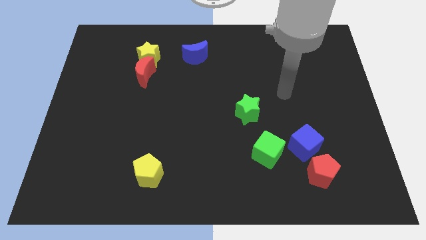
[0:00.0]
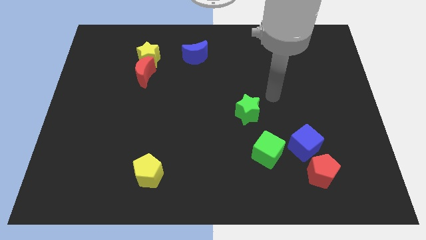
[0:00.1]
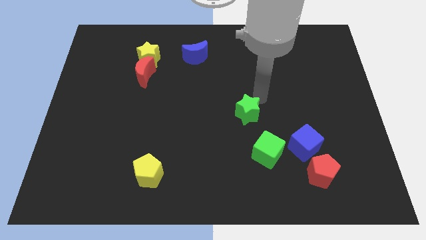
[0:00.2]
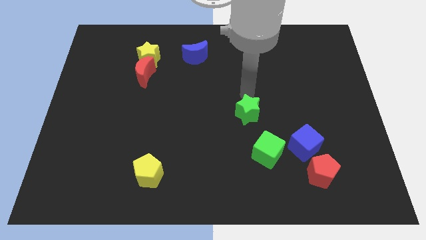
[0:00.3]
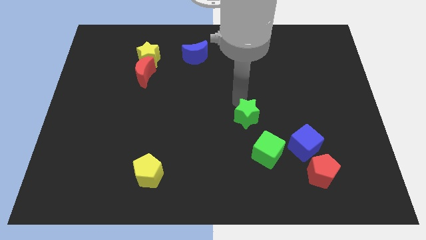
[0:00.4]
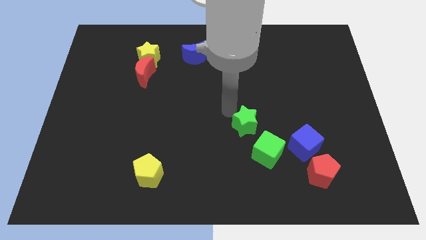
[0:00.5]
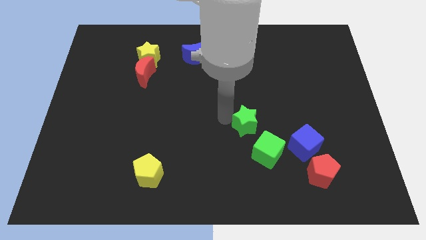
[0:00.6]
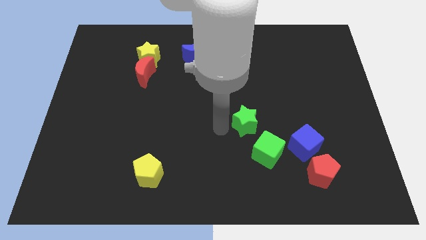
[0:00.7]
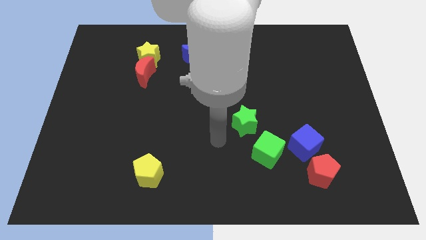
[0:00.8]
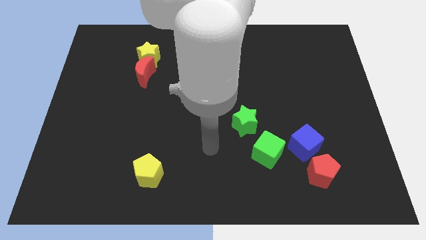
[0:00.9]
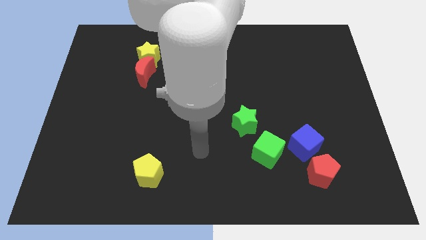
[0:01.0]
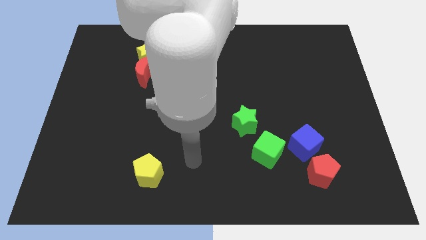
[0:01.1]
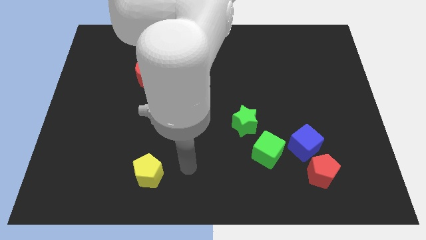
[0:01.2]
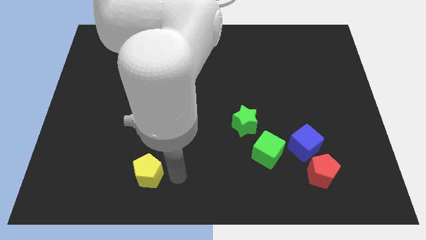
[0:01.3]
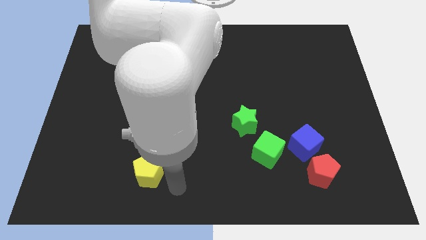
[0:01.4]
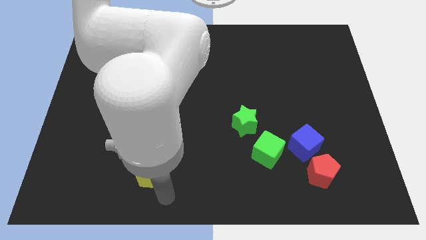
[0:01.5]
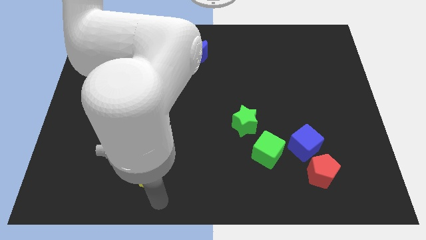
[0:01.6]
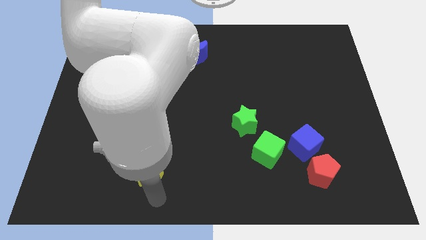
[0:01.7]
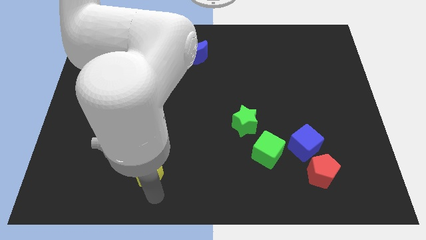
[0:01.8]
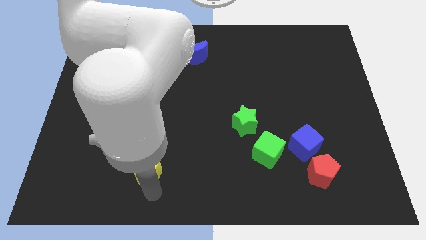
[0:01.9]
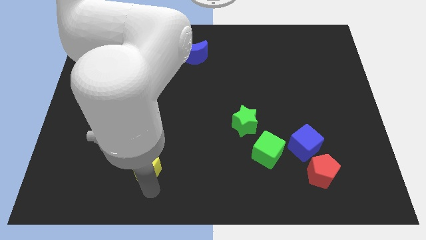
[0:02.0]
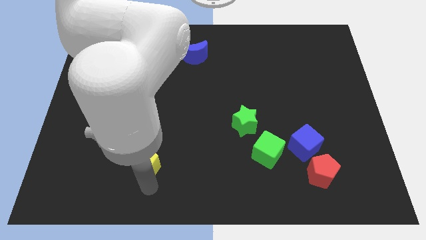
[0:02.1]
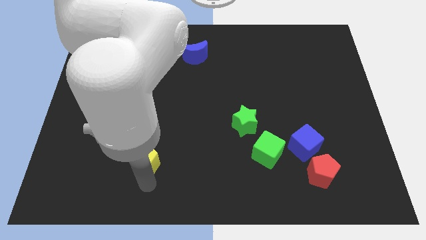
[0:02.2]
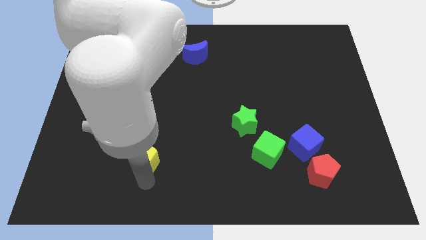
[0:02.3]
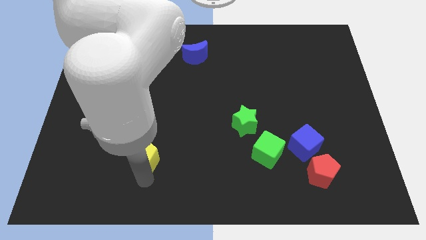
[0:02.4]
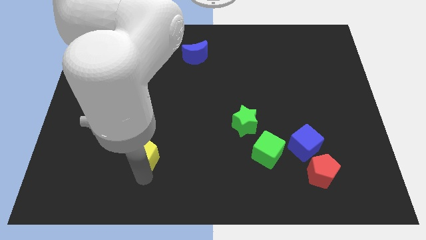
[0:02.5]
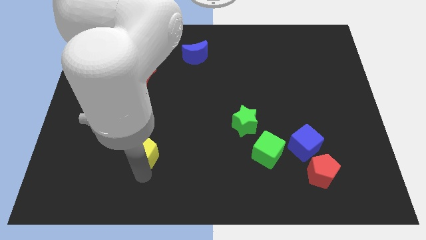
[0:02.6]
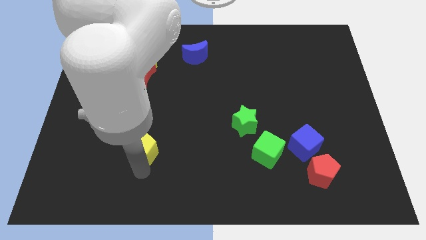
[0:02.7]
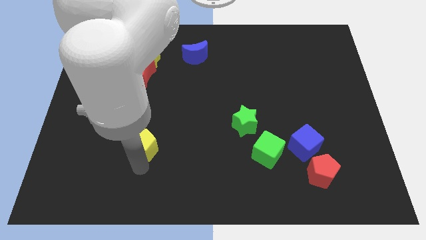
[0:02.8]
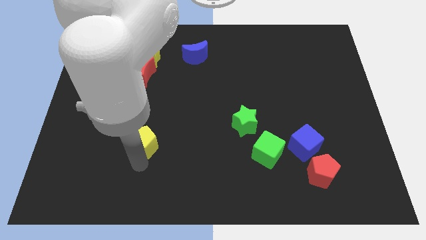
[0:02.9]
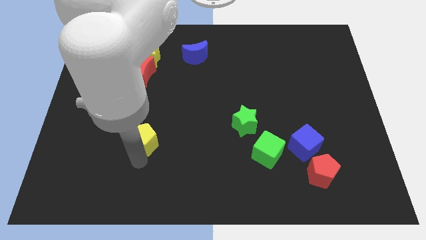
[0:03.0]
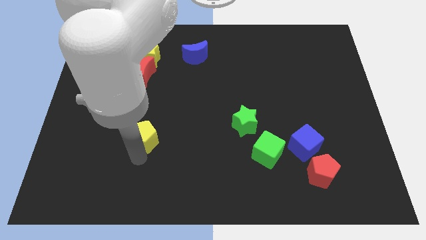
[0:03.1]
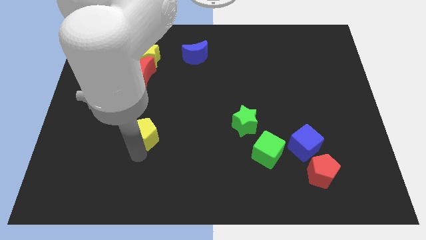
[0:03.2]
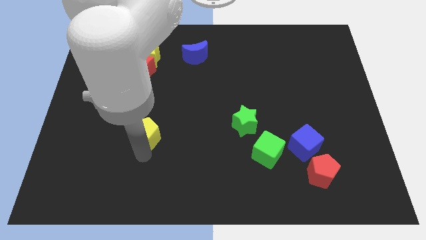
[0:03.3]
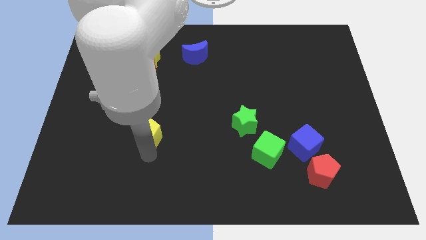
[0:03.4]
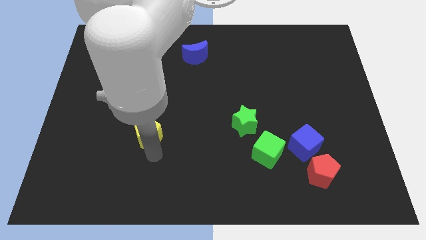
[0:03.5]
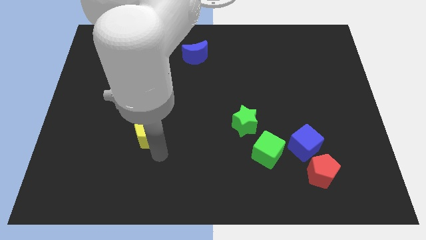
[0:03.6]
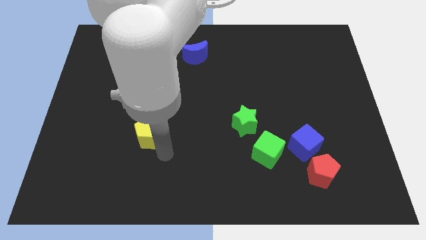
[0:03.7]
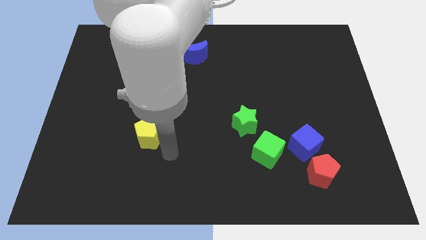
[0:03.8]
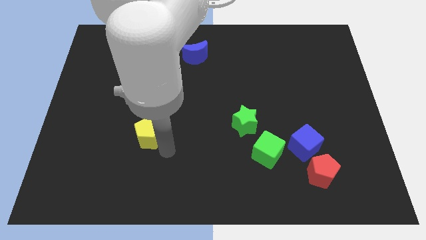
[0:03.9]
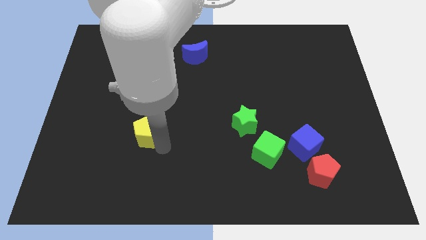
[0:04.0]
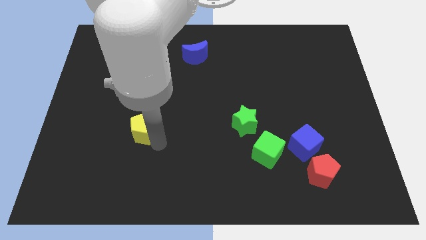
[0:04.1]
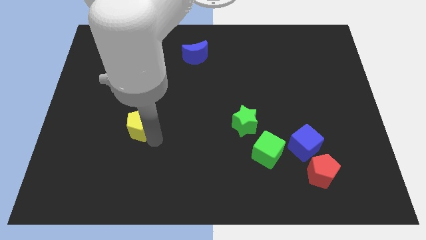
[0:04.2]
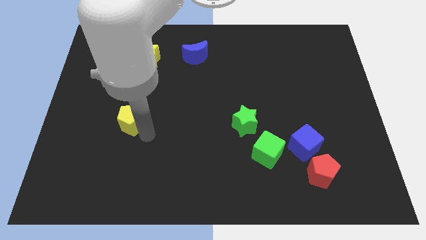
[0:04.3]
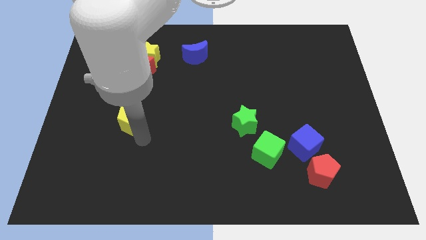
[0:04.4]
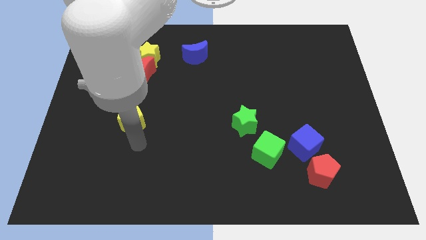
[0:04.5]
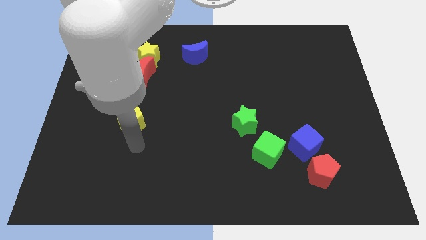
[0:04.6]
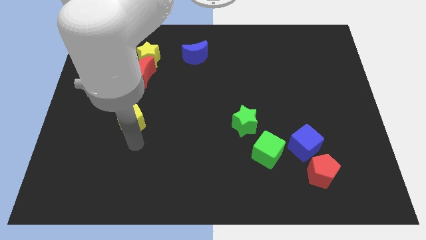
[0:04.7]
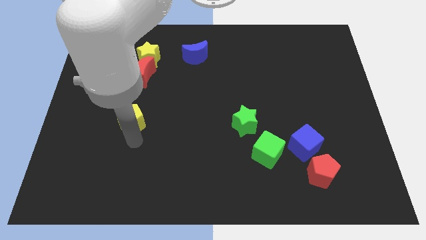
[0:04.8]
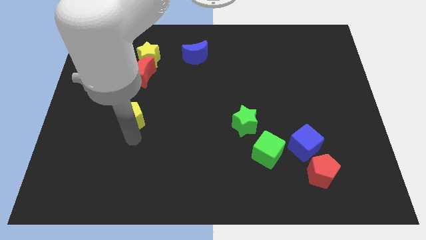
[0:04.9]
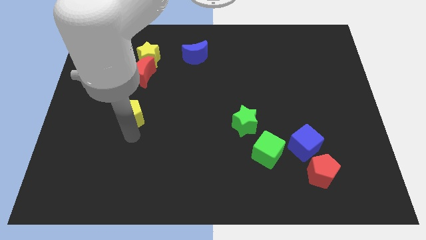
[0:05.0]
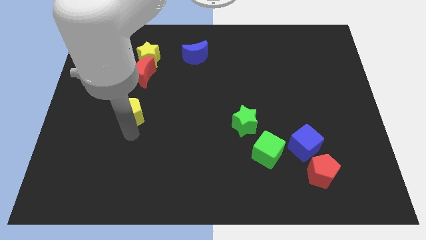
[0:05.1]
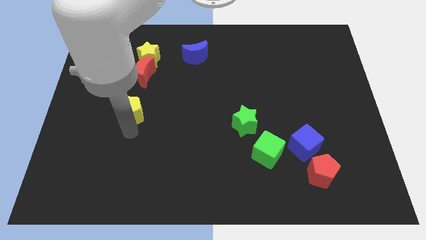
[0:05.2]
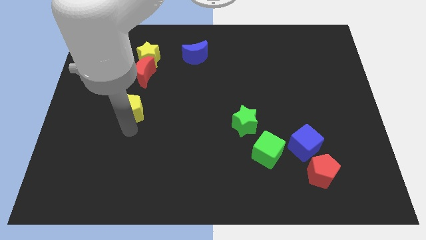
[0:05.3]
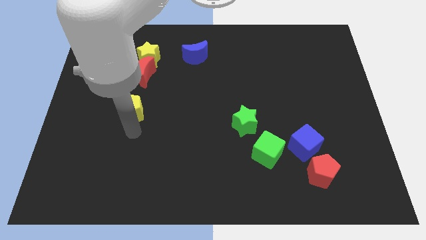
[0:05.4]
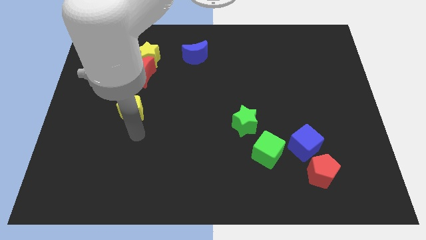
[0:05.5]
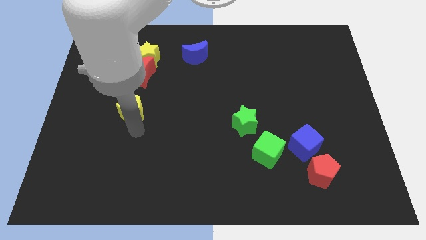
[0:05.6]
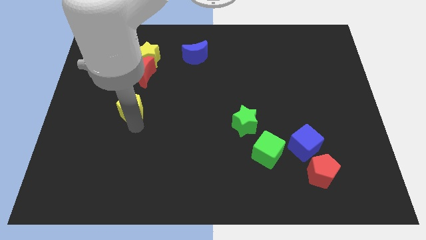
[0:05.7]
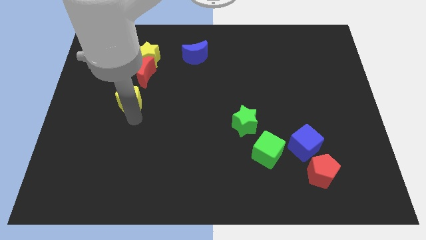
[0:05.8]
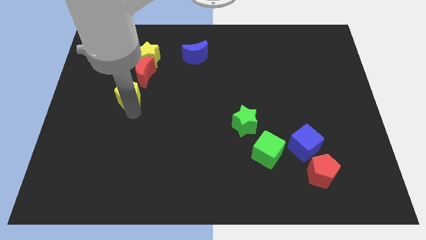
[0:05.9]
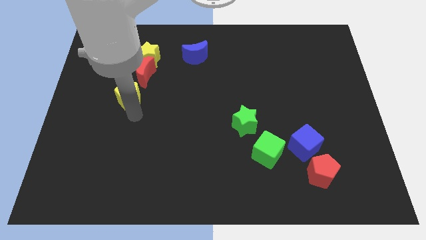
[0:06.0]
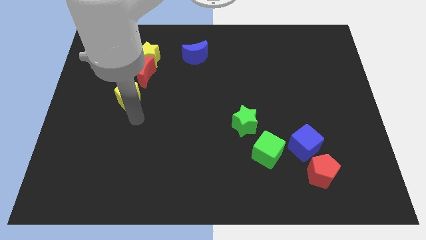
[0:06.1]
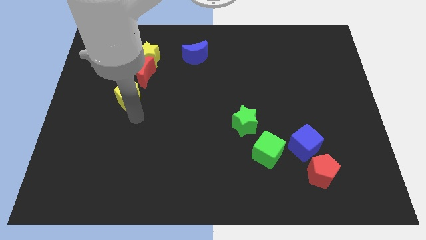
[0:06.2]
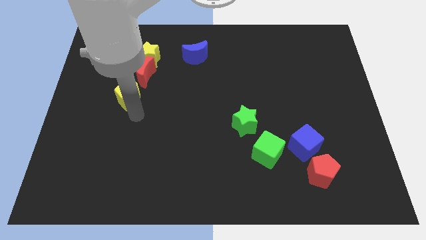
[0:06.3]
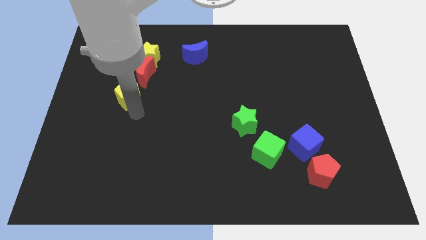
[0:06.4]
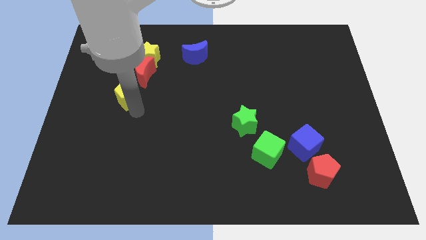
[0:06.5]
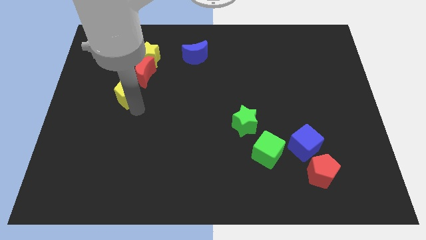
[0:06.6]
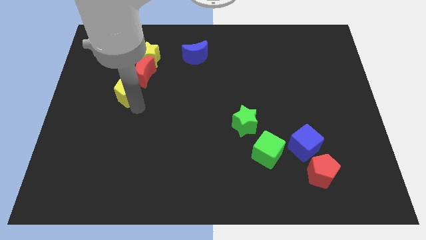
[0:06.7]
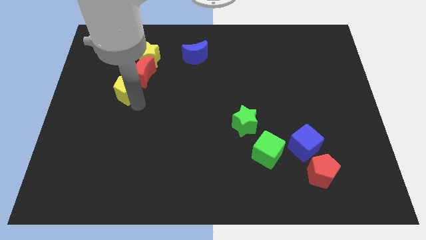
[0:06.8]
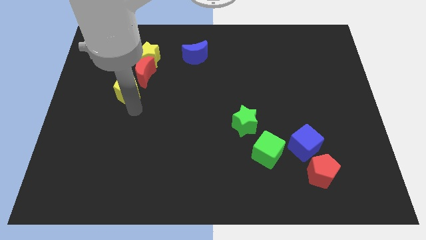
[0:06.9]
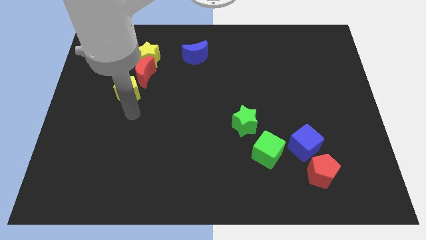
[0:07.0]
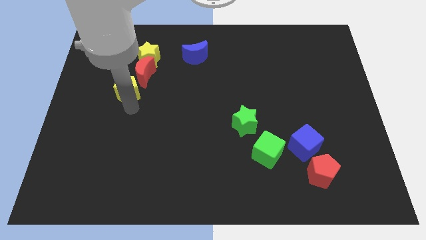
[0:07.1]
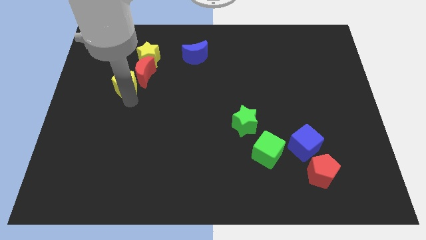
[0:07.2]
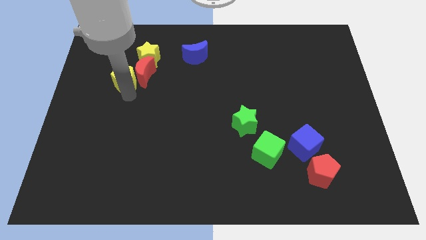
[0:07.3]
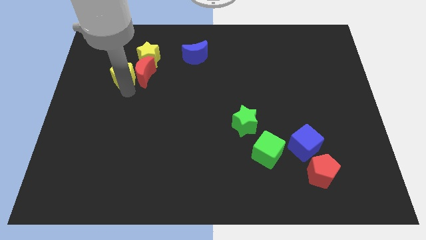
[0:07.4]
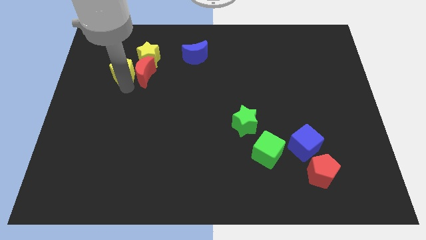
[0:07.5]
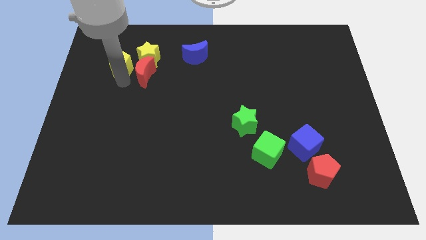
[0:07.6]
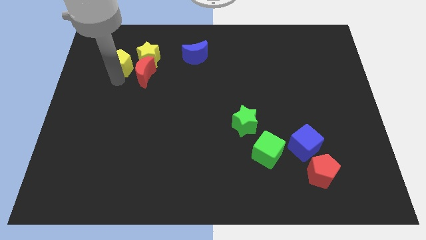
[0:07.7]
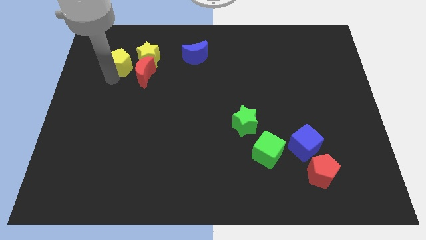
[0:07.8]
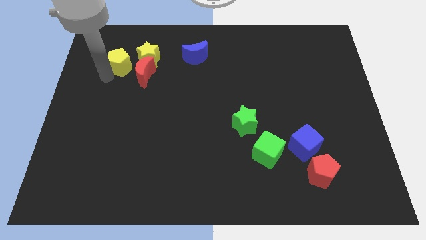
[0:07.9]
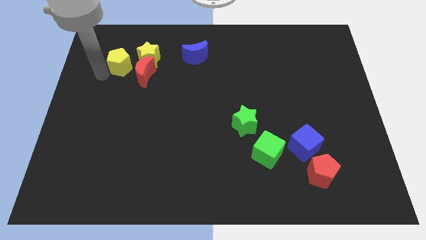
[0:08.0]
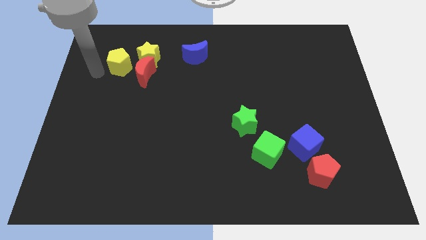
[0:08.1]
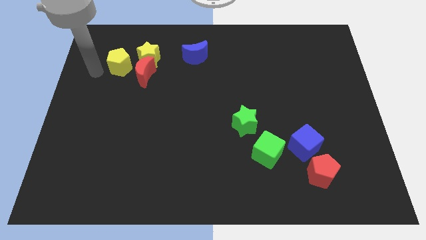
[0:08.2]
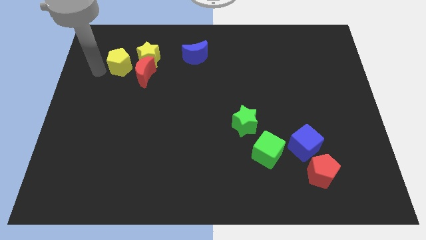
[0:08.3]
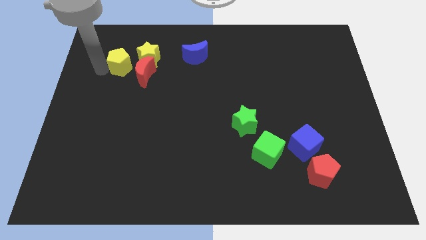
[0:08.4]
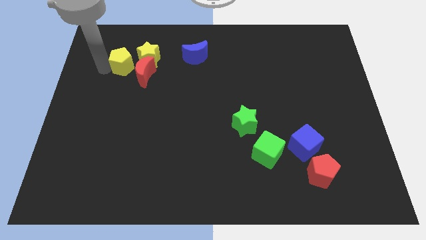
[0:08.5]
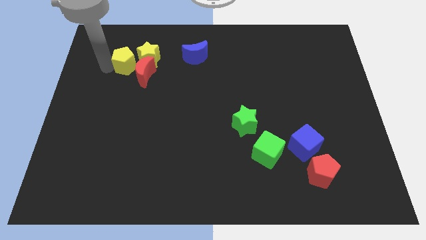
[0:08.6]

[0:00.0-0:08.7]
move the yellow pentagon close to the yellow star
